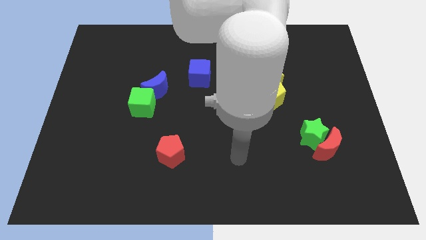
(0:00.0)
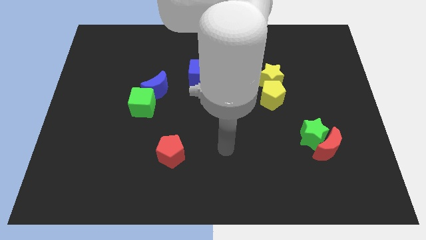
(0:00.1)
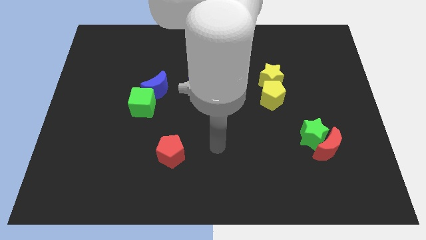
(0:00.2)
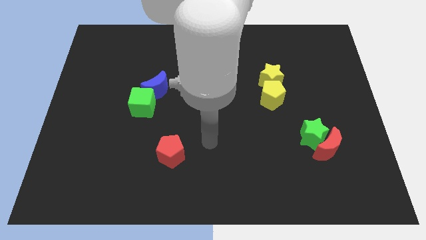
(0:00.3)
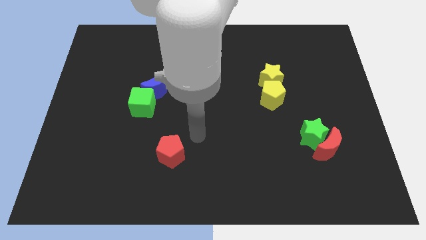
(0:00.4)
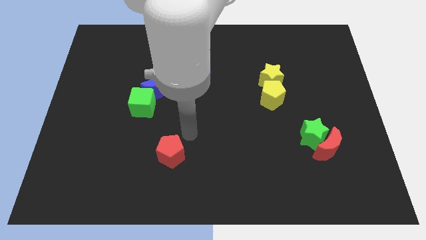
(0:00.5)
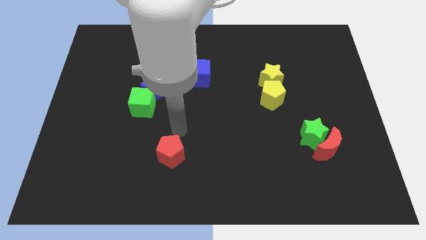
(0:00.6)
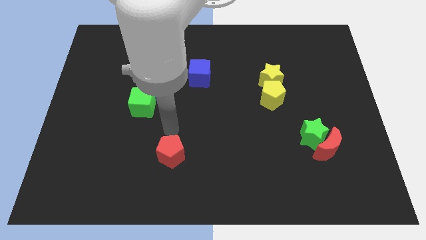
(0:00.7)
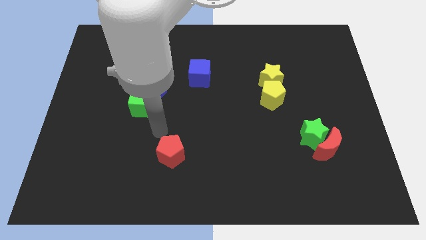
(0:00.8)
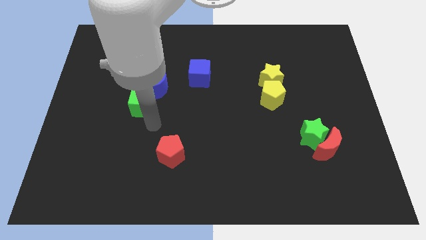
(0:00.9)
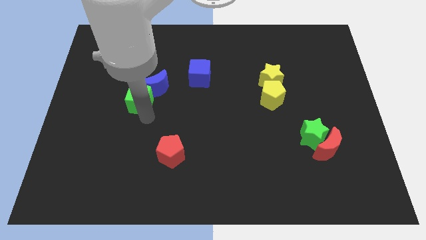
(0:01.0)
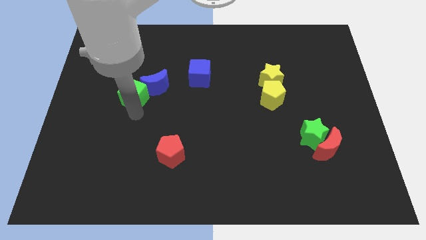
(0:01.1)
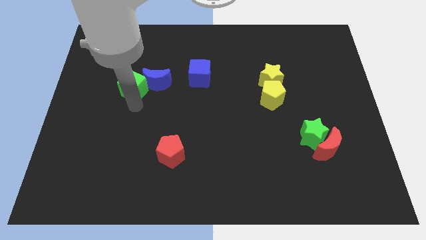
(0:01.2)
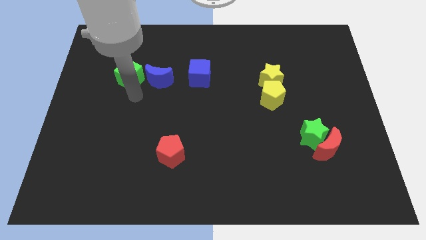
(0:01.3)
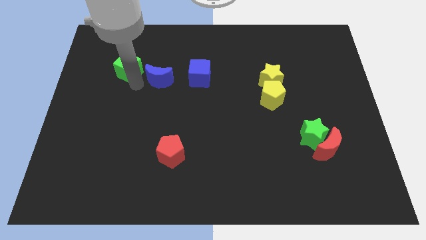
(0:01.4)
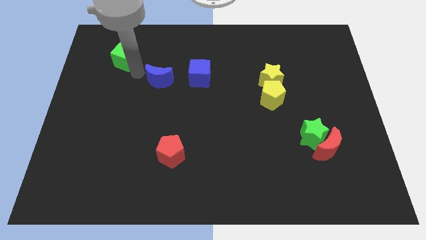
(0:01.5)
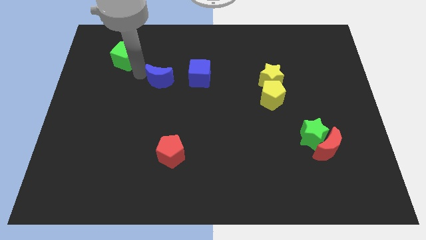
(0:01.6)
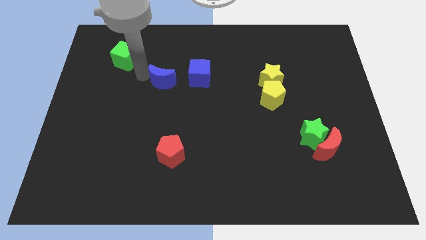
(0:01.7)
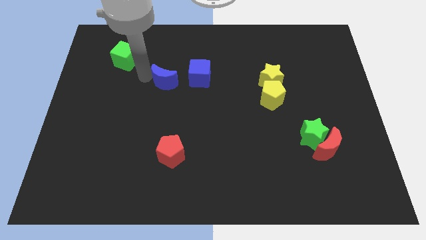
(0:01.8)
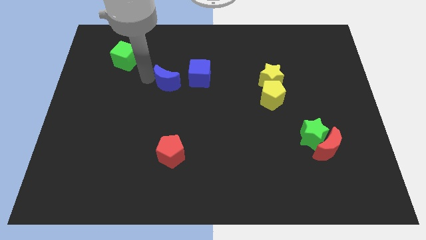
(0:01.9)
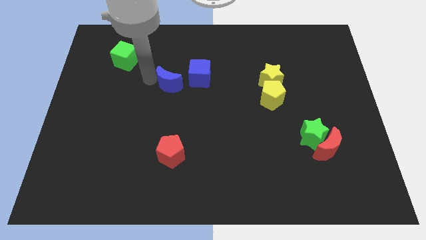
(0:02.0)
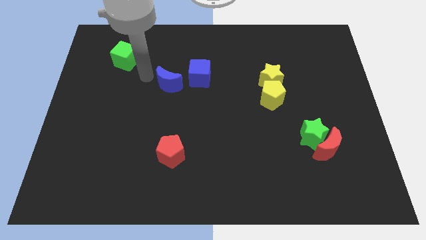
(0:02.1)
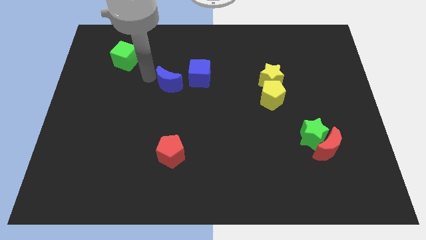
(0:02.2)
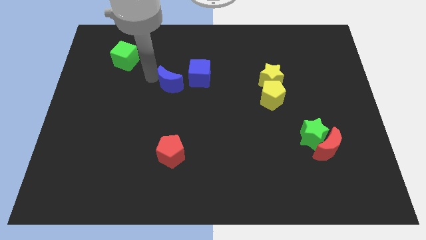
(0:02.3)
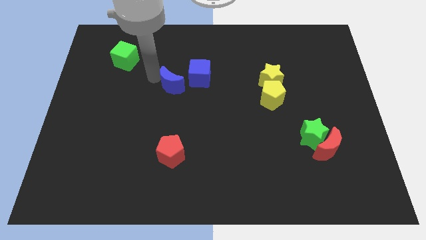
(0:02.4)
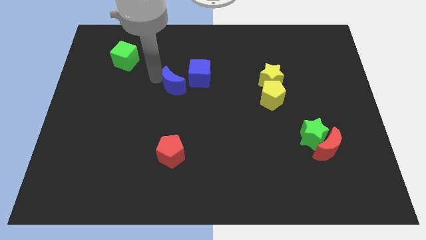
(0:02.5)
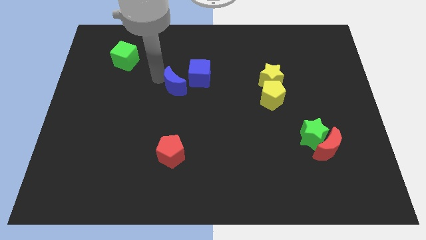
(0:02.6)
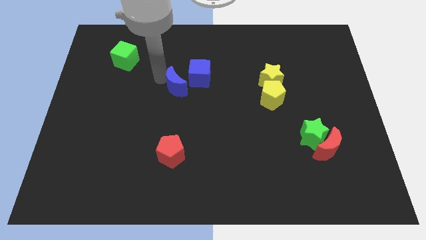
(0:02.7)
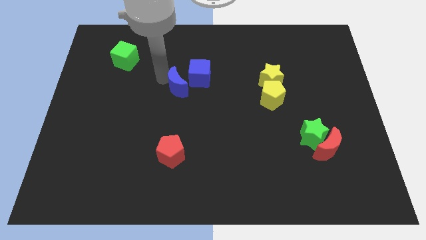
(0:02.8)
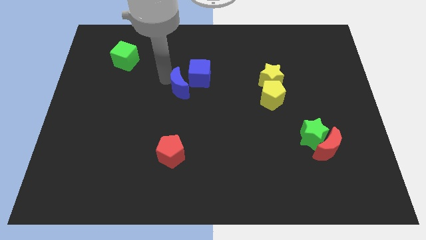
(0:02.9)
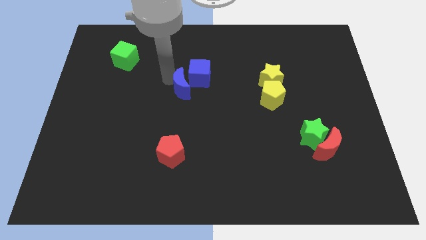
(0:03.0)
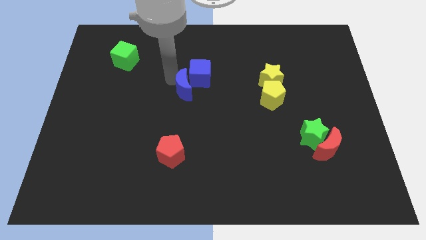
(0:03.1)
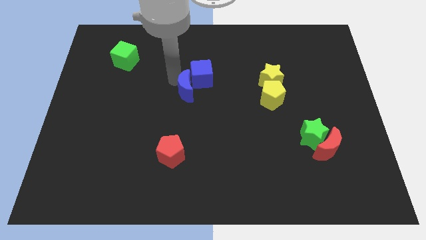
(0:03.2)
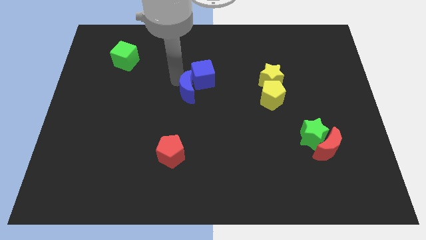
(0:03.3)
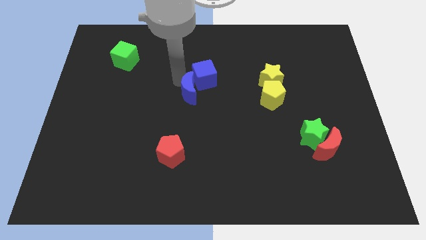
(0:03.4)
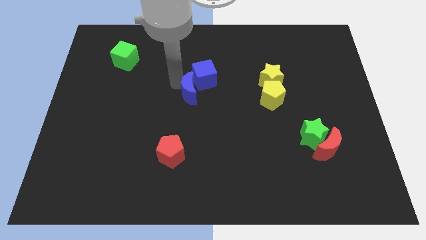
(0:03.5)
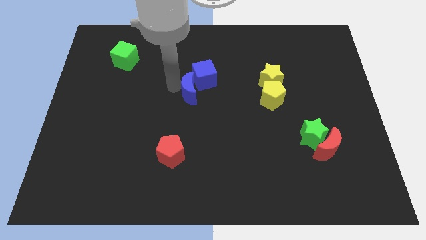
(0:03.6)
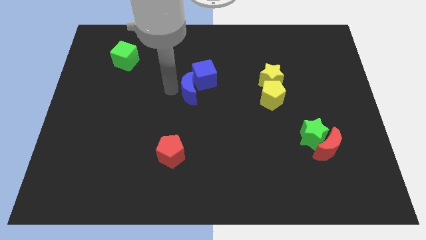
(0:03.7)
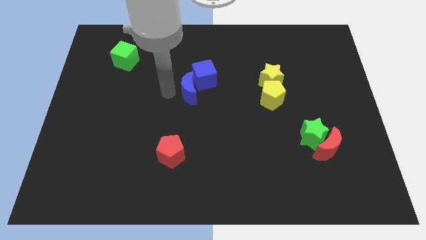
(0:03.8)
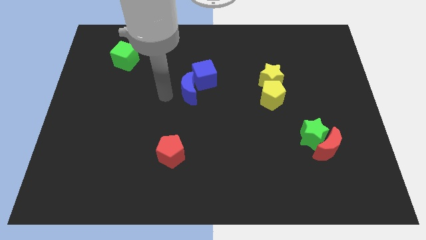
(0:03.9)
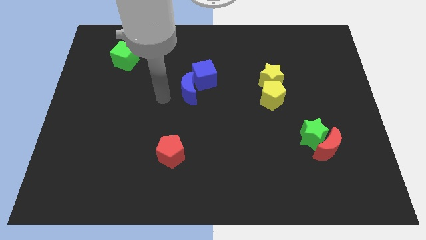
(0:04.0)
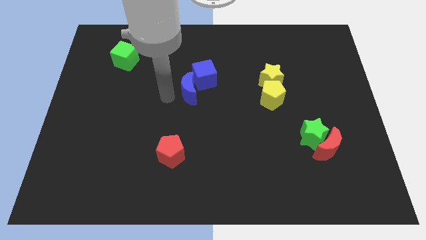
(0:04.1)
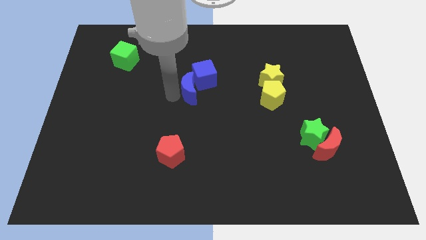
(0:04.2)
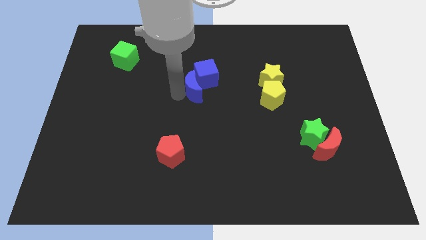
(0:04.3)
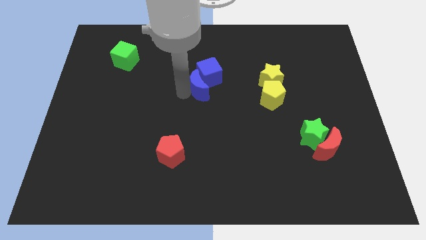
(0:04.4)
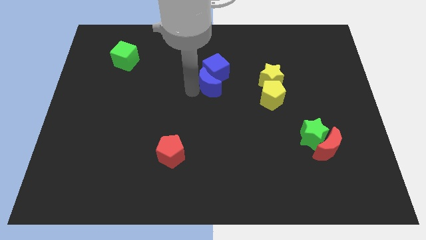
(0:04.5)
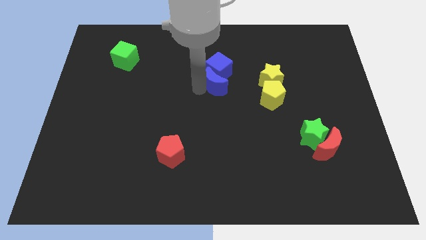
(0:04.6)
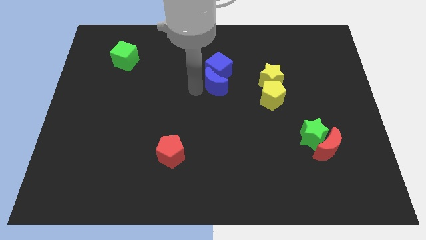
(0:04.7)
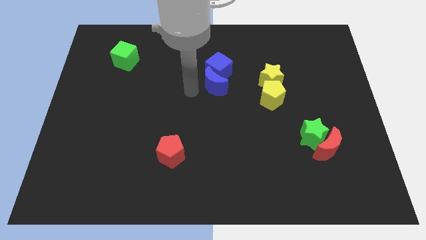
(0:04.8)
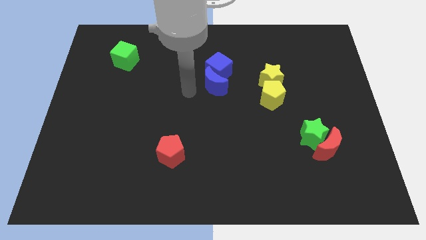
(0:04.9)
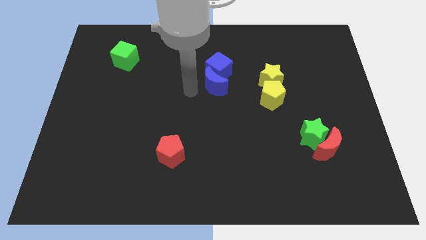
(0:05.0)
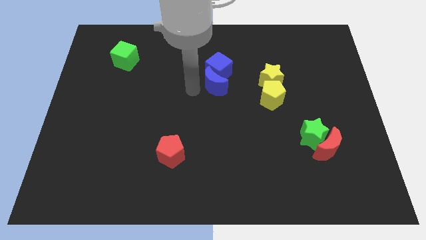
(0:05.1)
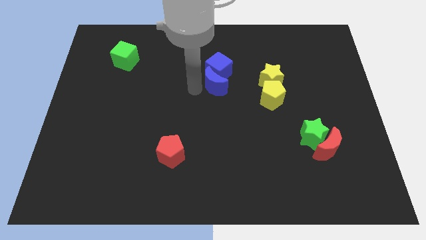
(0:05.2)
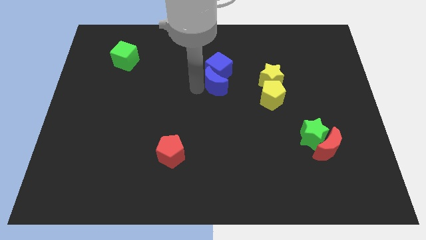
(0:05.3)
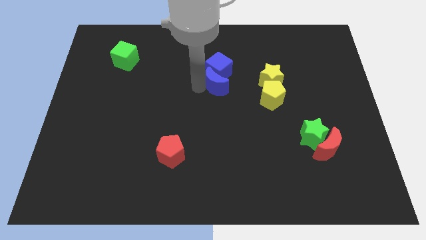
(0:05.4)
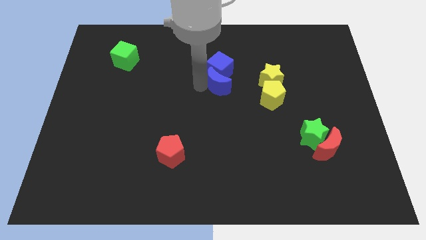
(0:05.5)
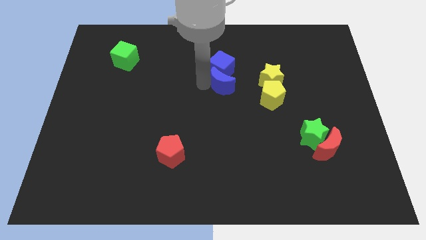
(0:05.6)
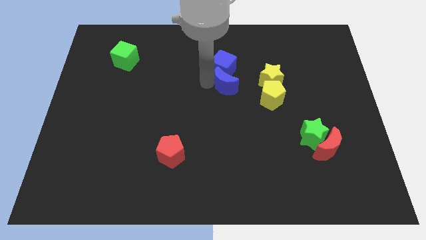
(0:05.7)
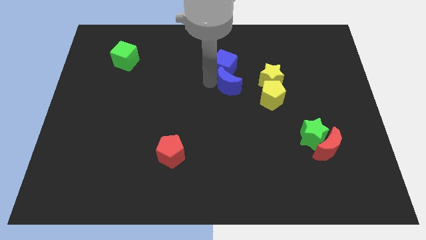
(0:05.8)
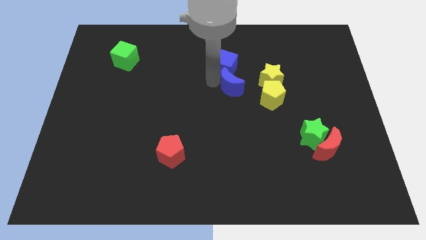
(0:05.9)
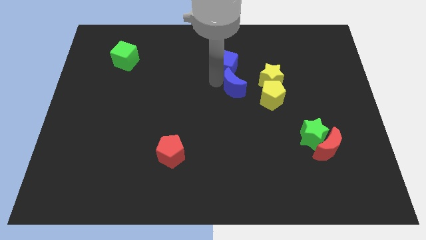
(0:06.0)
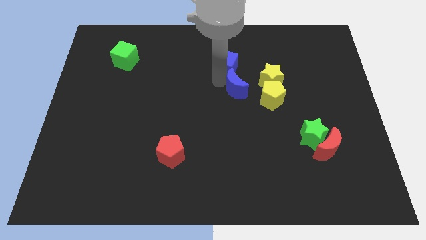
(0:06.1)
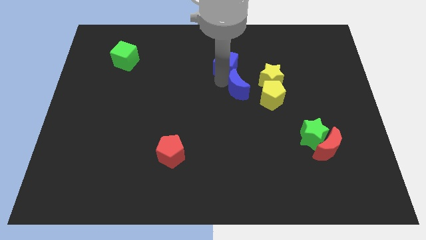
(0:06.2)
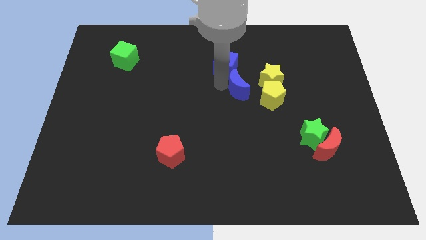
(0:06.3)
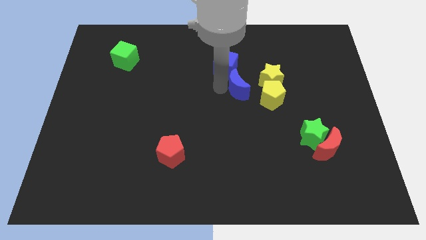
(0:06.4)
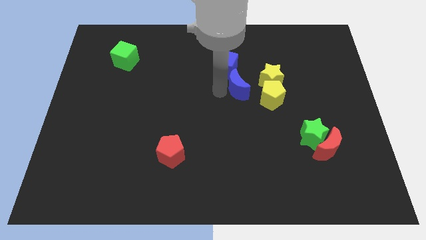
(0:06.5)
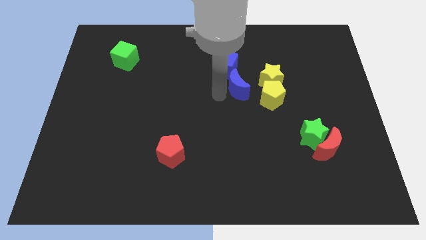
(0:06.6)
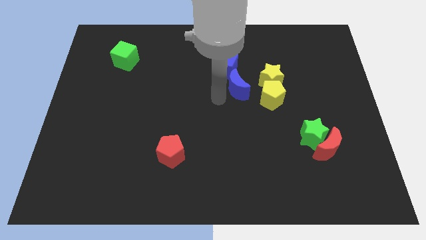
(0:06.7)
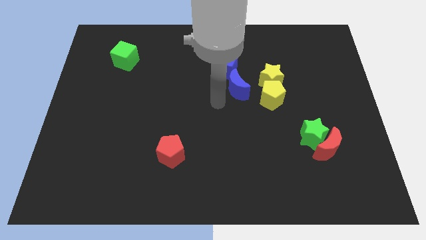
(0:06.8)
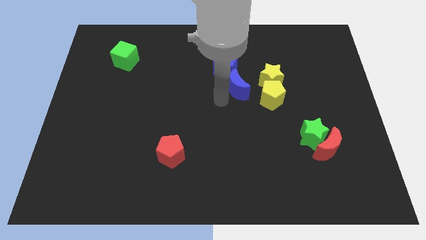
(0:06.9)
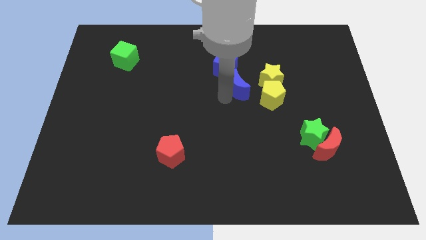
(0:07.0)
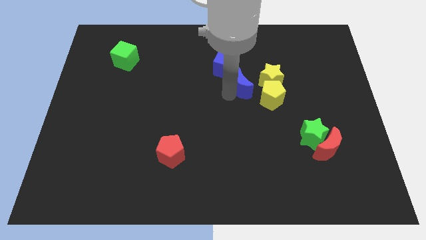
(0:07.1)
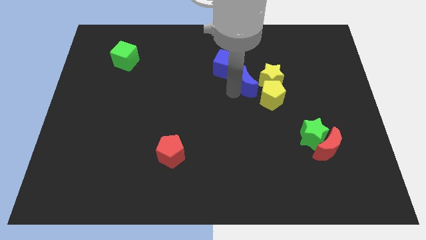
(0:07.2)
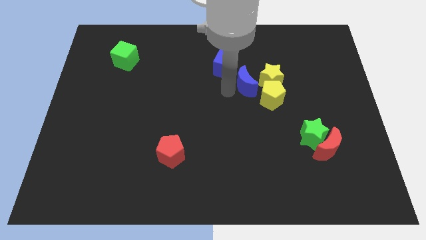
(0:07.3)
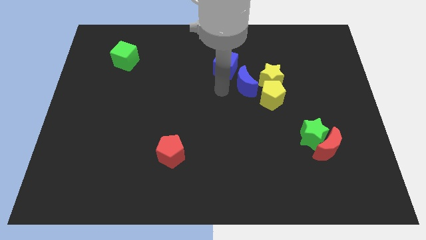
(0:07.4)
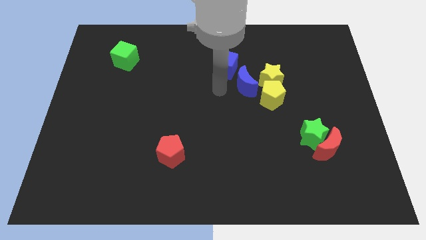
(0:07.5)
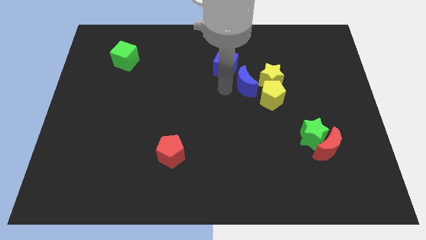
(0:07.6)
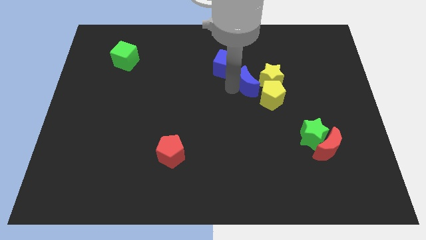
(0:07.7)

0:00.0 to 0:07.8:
put the blue moon next to the yellow star
